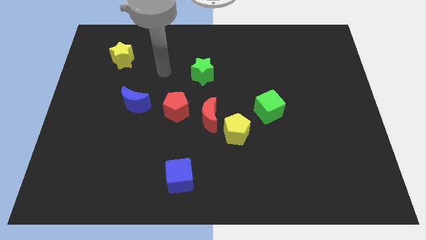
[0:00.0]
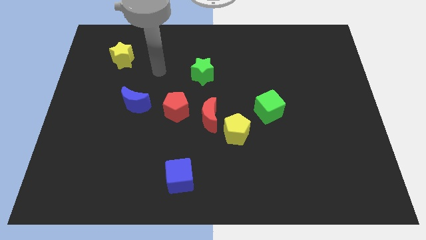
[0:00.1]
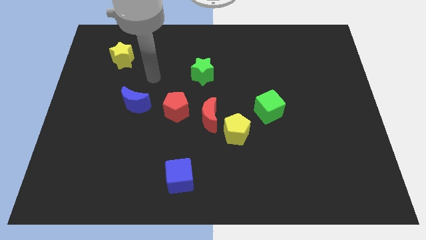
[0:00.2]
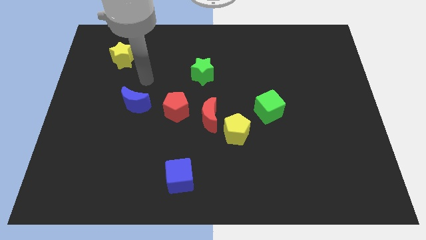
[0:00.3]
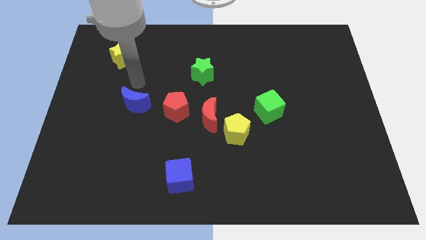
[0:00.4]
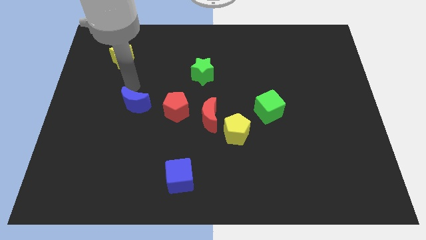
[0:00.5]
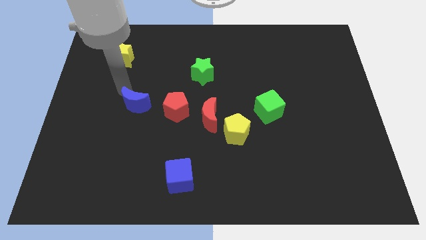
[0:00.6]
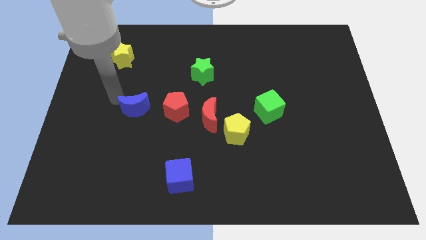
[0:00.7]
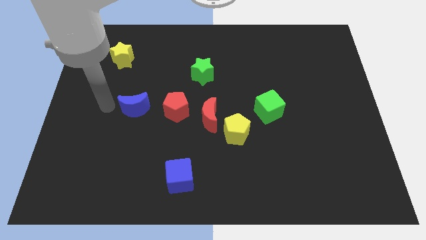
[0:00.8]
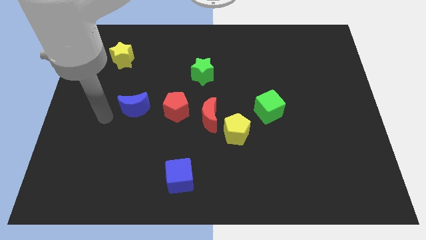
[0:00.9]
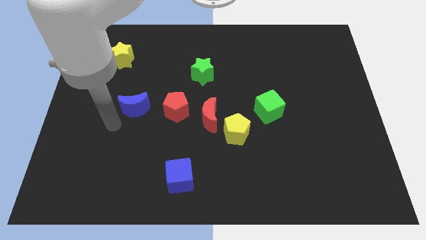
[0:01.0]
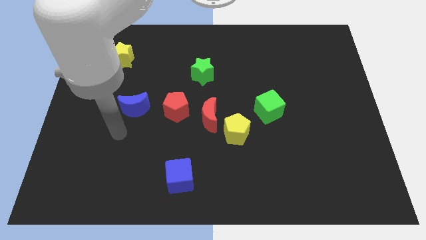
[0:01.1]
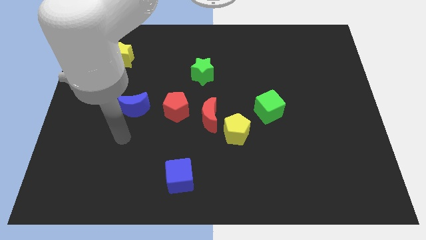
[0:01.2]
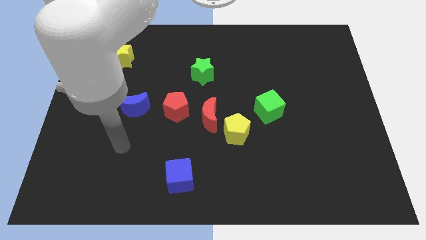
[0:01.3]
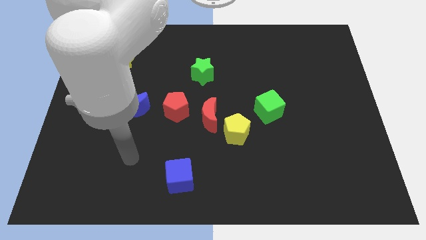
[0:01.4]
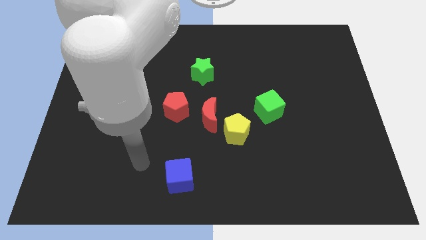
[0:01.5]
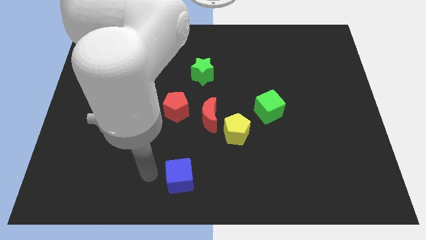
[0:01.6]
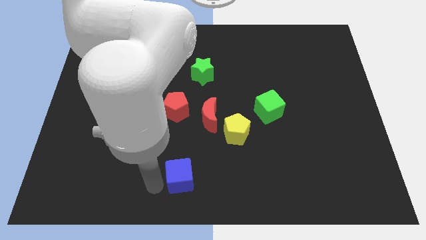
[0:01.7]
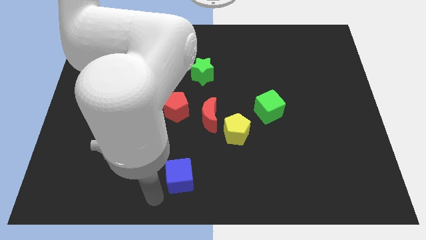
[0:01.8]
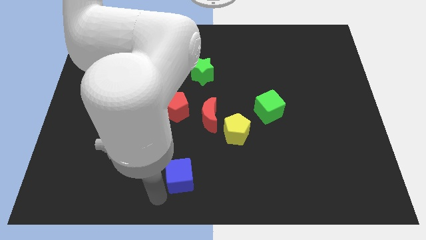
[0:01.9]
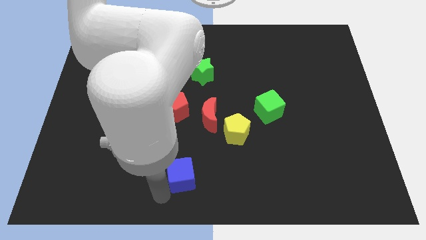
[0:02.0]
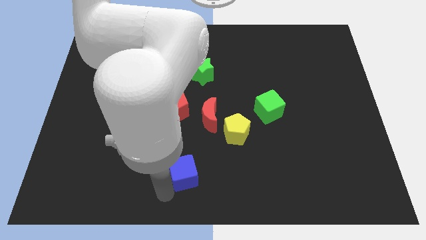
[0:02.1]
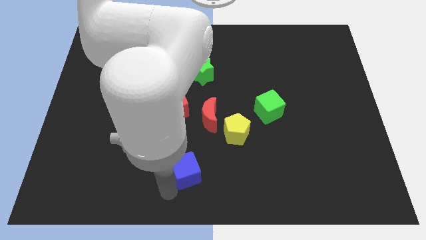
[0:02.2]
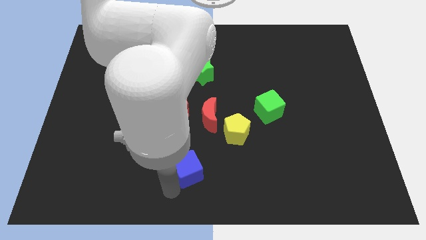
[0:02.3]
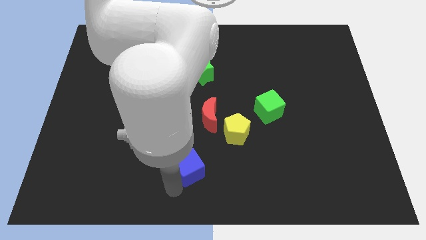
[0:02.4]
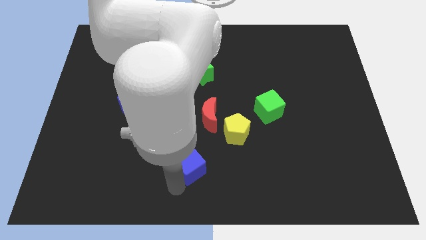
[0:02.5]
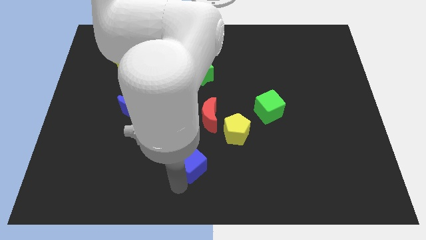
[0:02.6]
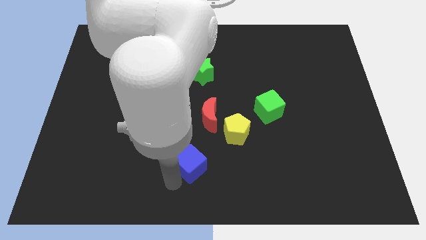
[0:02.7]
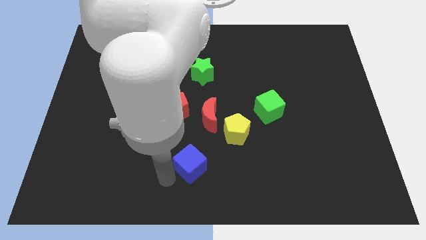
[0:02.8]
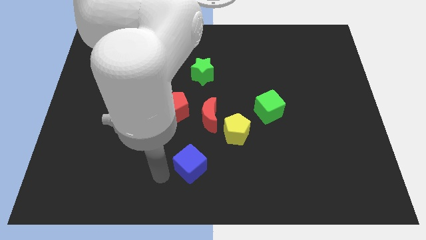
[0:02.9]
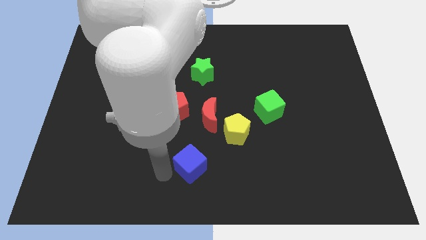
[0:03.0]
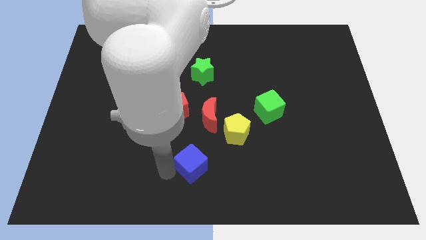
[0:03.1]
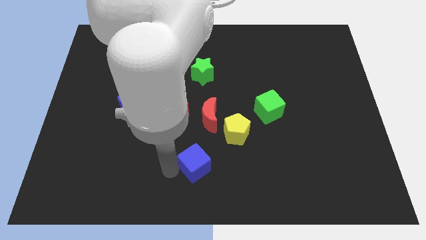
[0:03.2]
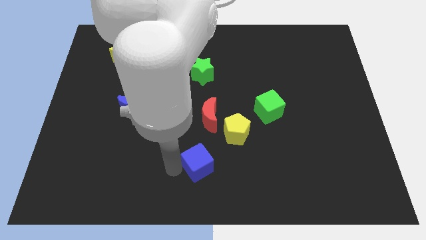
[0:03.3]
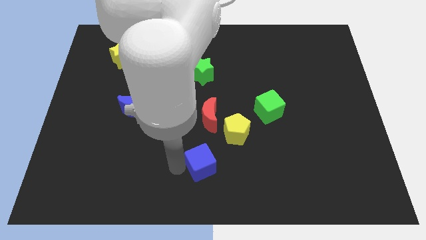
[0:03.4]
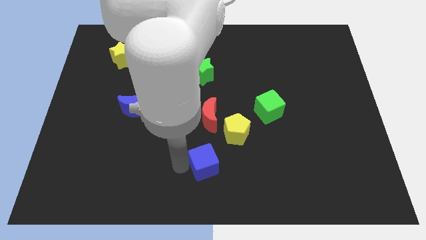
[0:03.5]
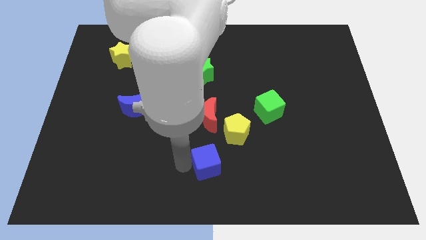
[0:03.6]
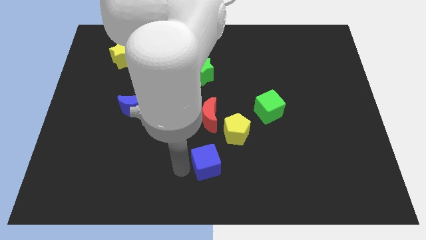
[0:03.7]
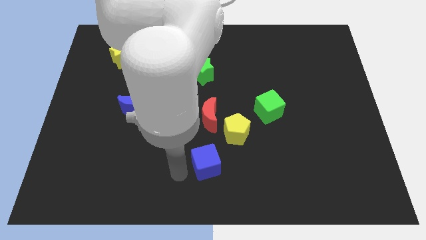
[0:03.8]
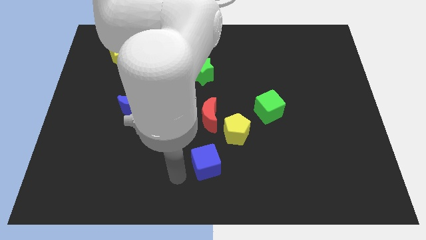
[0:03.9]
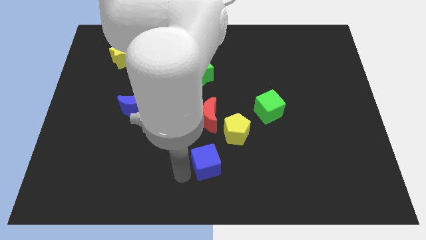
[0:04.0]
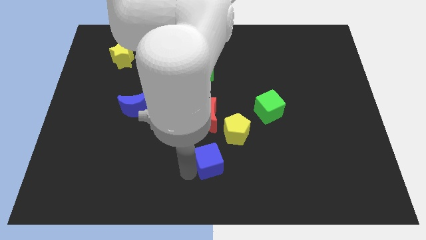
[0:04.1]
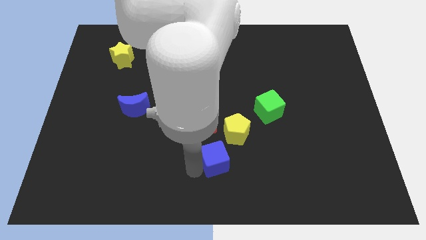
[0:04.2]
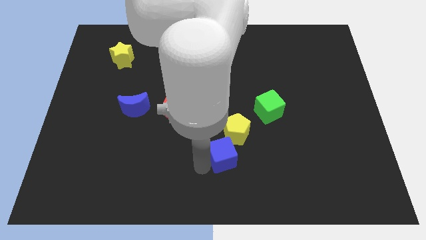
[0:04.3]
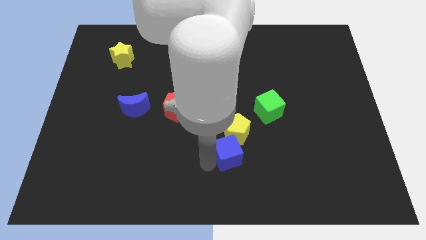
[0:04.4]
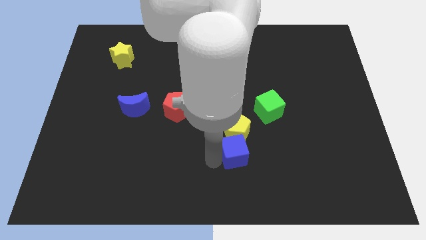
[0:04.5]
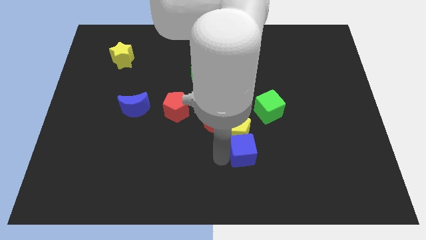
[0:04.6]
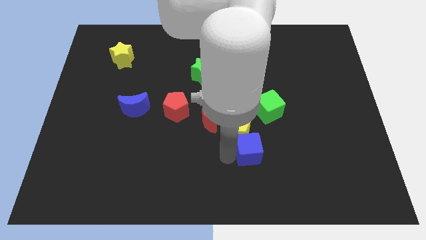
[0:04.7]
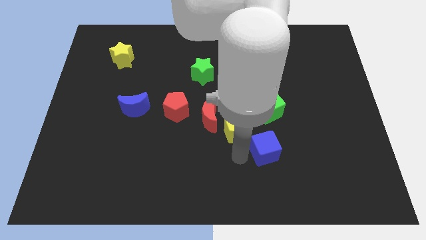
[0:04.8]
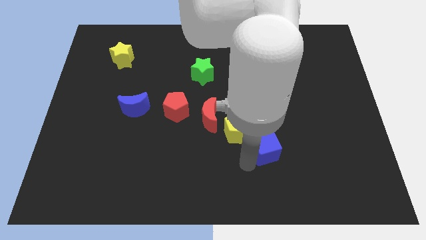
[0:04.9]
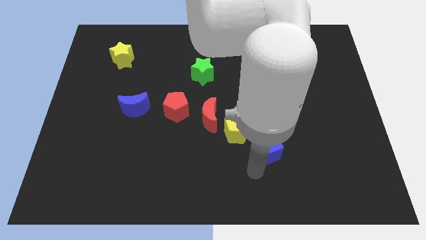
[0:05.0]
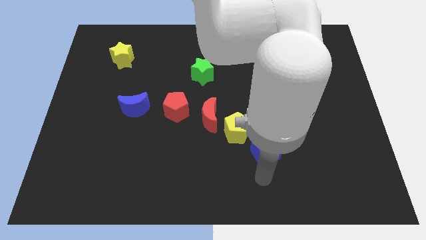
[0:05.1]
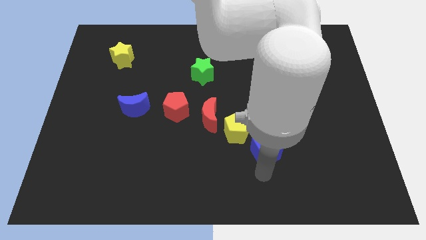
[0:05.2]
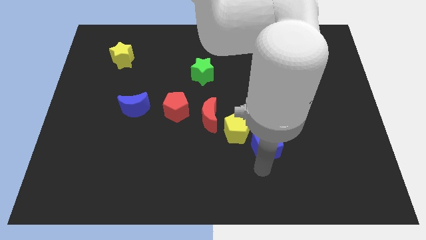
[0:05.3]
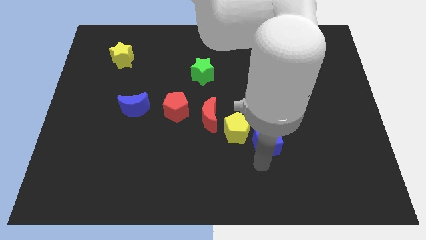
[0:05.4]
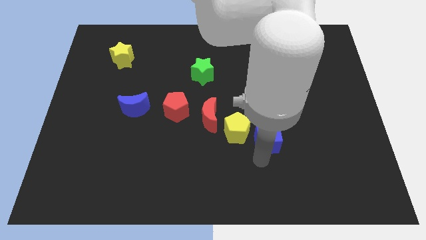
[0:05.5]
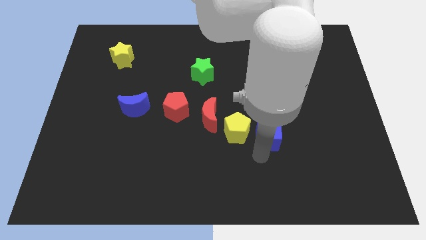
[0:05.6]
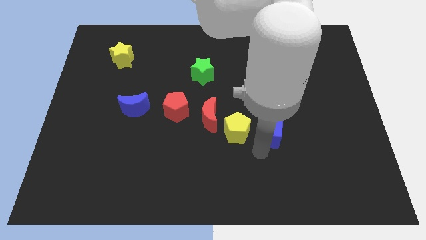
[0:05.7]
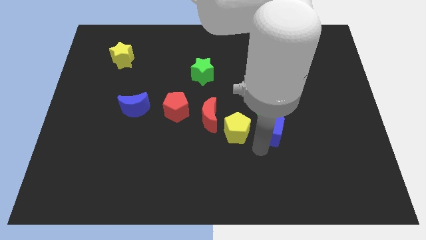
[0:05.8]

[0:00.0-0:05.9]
slide the blue cube close to the green cube

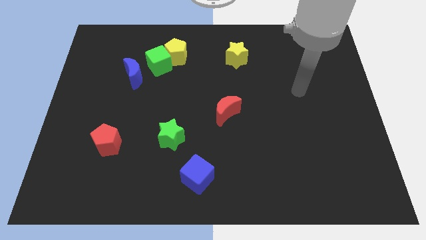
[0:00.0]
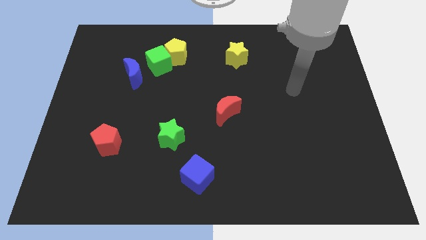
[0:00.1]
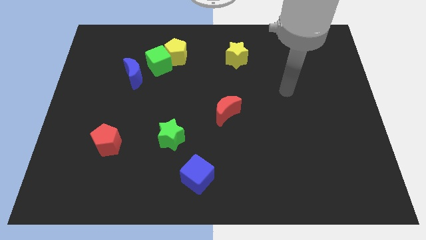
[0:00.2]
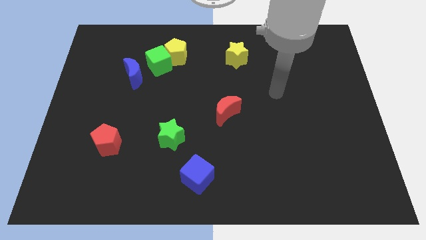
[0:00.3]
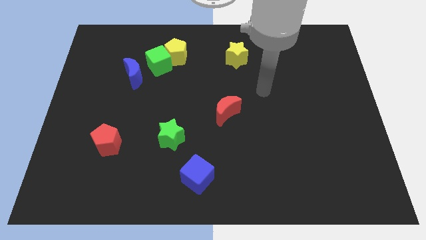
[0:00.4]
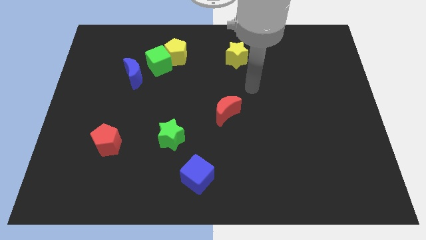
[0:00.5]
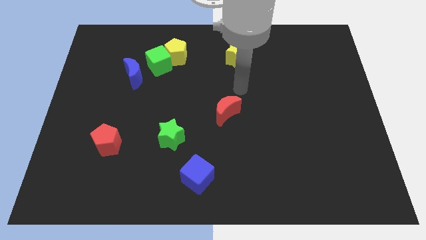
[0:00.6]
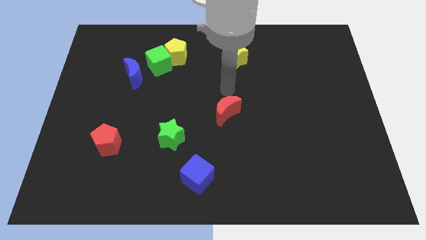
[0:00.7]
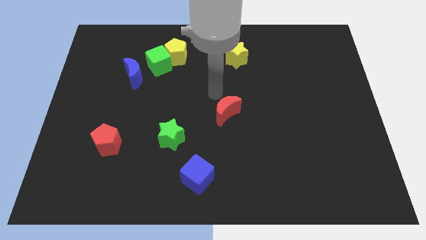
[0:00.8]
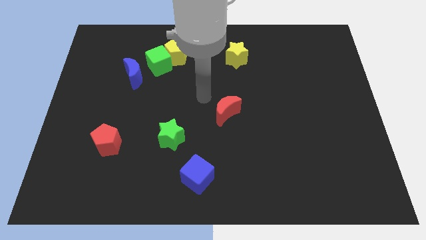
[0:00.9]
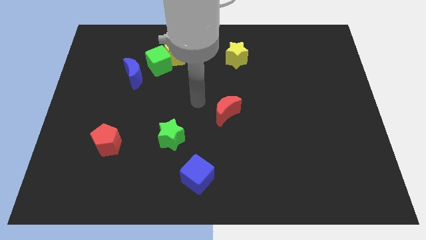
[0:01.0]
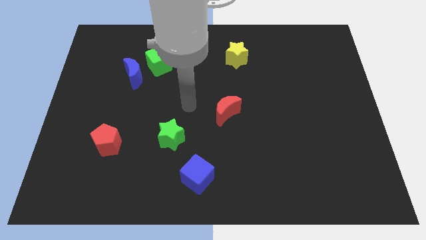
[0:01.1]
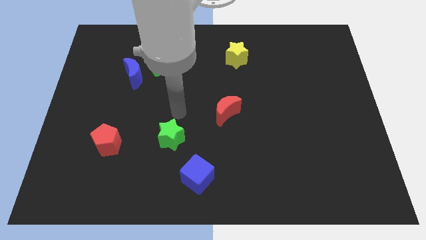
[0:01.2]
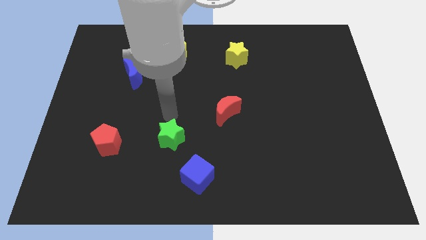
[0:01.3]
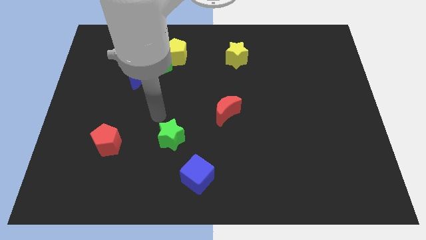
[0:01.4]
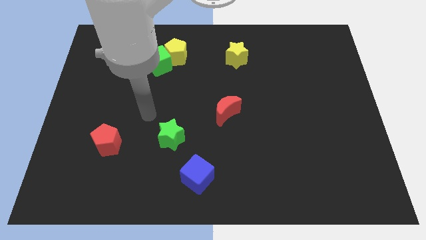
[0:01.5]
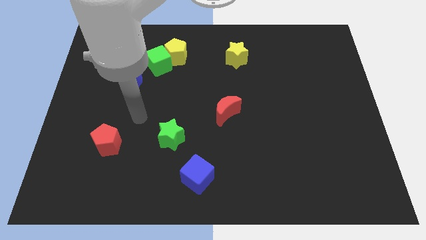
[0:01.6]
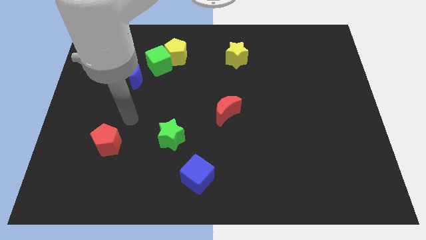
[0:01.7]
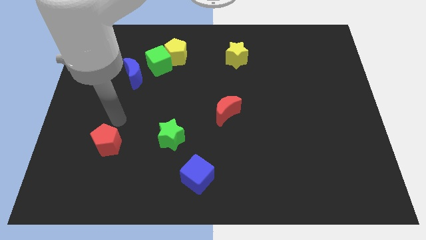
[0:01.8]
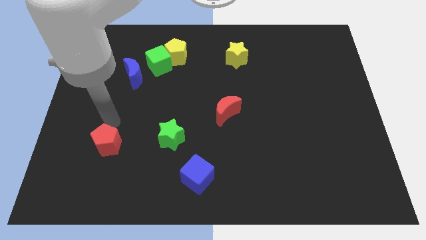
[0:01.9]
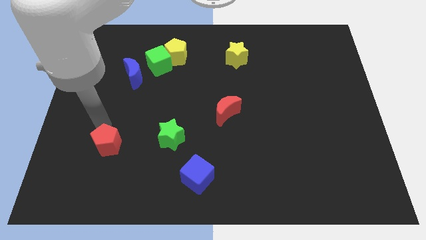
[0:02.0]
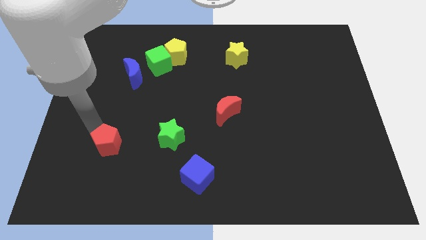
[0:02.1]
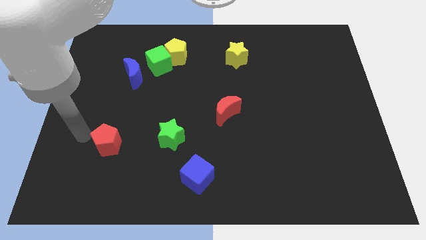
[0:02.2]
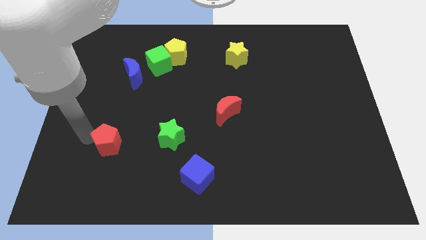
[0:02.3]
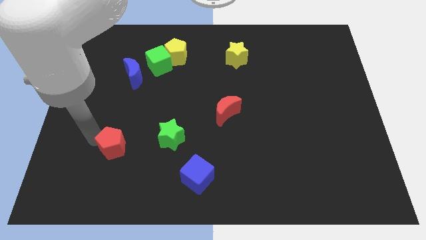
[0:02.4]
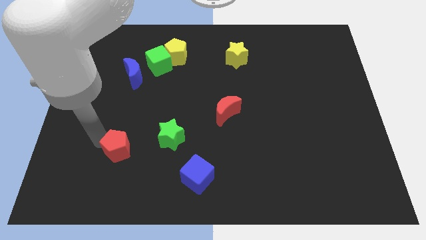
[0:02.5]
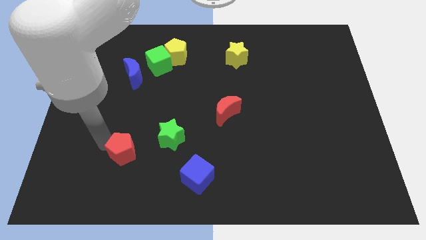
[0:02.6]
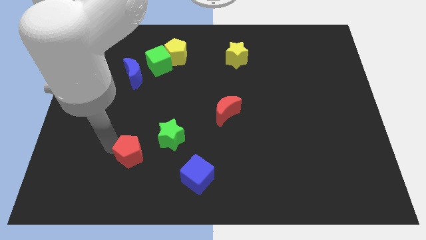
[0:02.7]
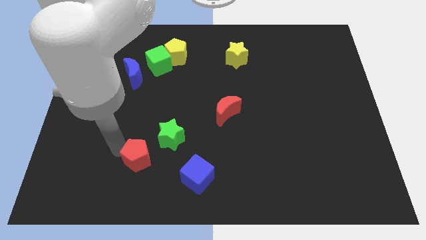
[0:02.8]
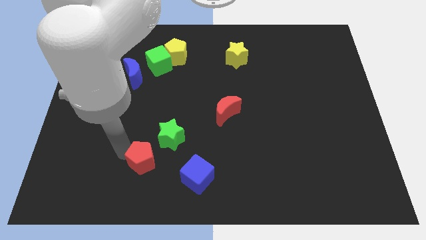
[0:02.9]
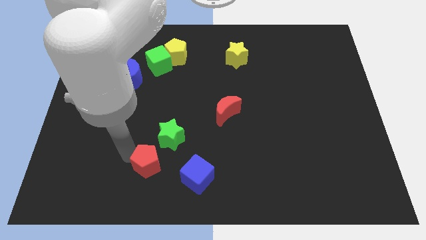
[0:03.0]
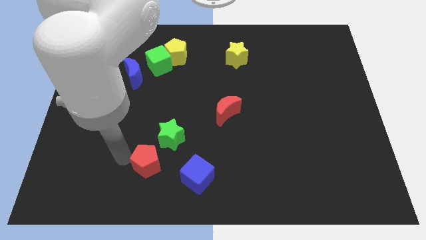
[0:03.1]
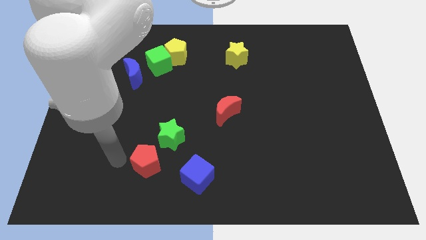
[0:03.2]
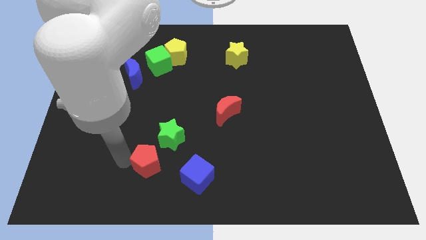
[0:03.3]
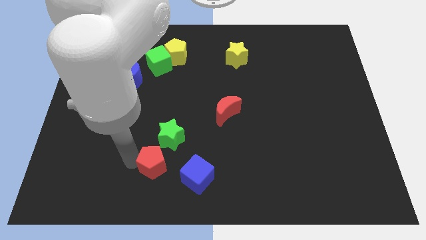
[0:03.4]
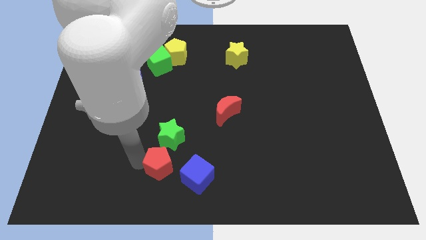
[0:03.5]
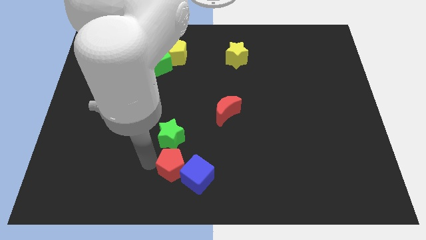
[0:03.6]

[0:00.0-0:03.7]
push the red pentagon next to the blue cube
